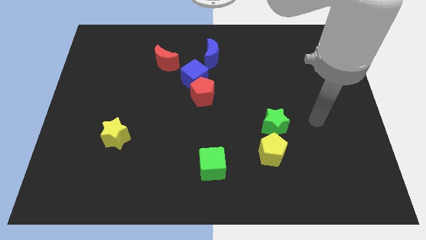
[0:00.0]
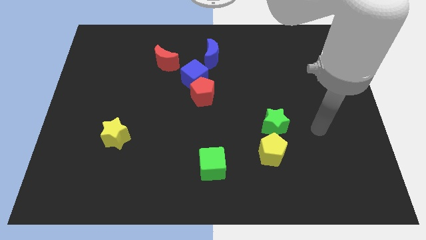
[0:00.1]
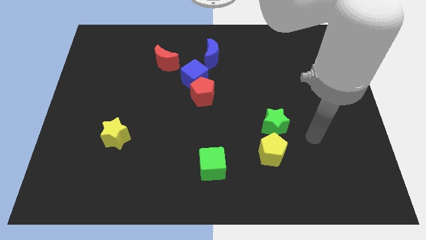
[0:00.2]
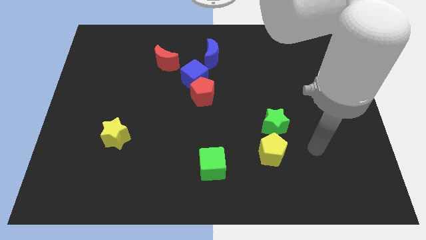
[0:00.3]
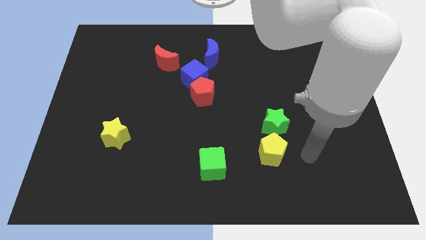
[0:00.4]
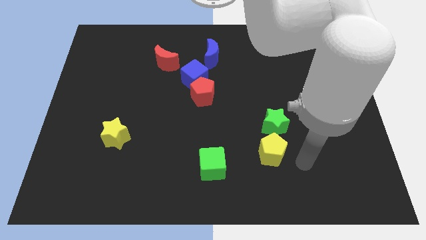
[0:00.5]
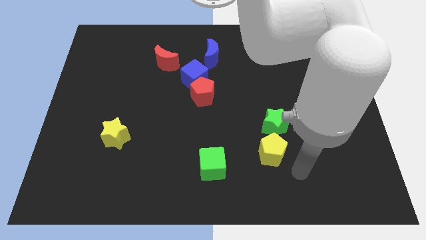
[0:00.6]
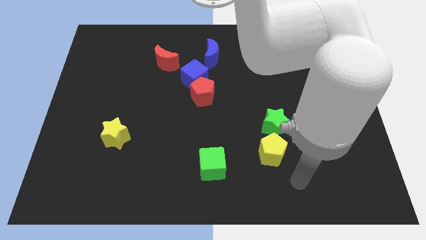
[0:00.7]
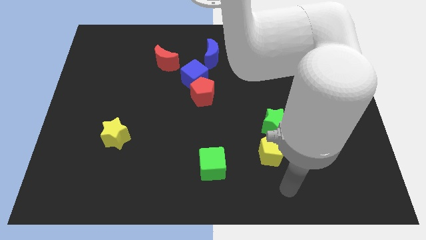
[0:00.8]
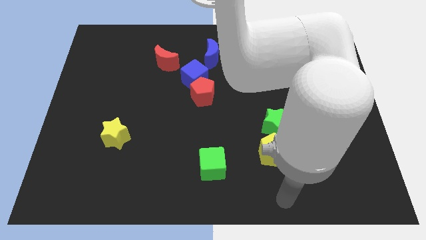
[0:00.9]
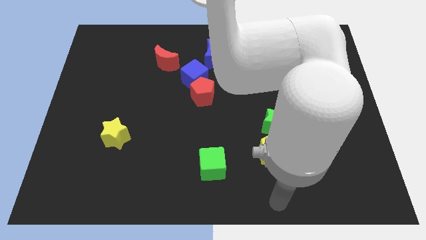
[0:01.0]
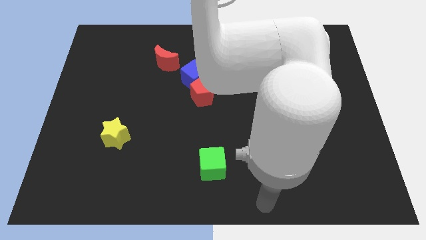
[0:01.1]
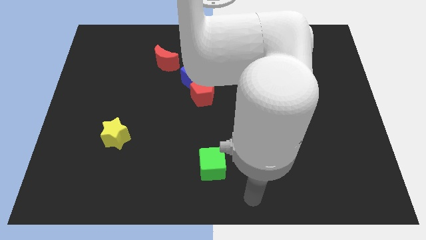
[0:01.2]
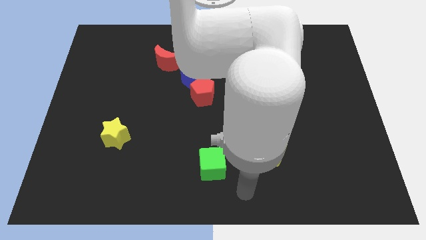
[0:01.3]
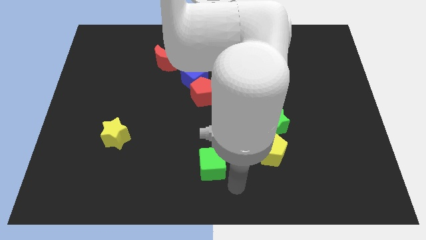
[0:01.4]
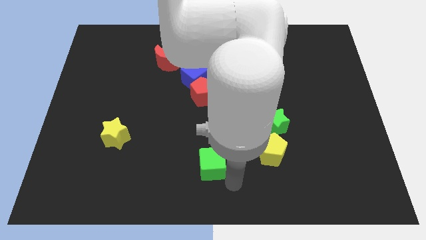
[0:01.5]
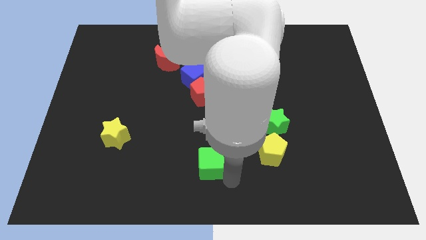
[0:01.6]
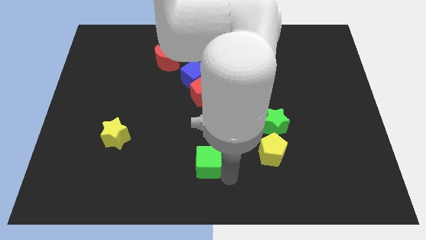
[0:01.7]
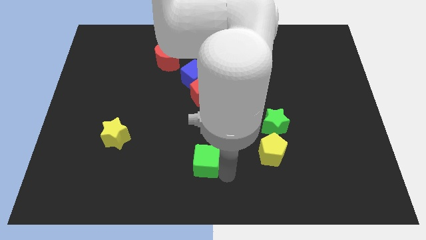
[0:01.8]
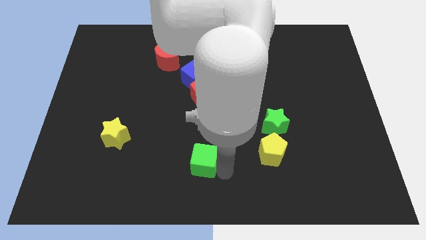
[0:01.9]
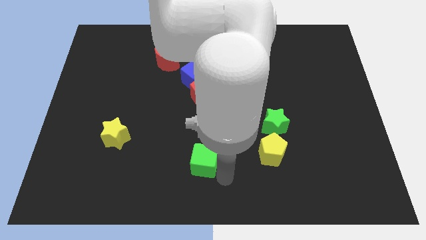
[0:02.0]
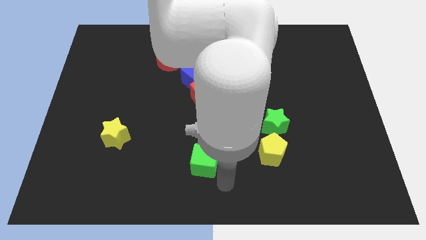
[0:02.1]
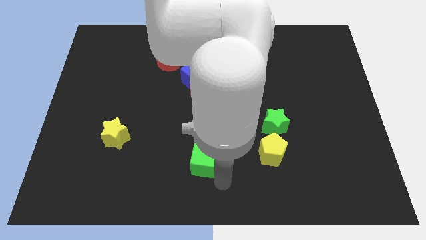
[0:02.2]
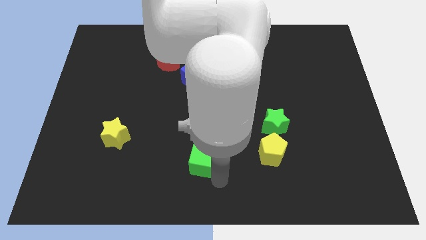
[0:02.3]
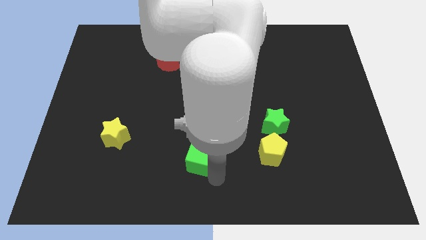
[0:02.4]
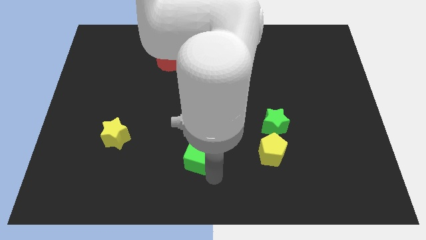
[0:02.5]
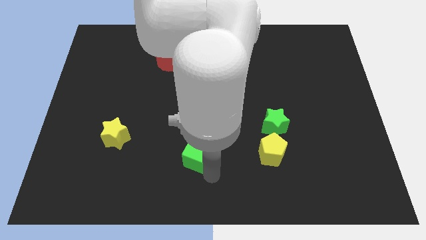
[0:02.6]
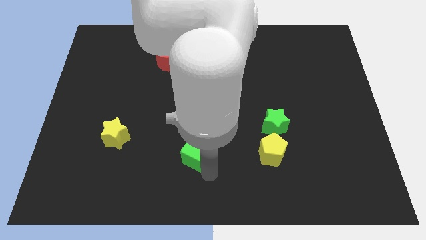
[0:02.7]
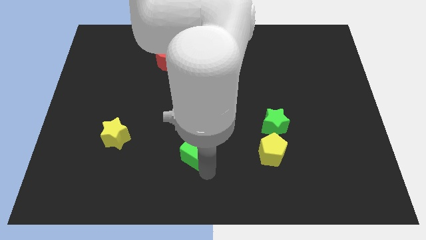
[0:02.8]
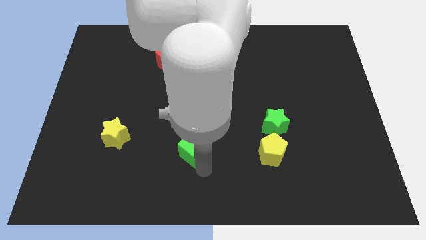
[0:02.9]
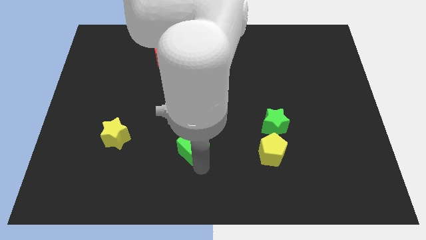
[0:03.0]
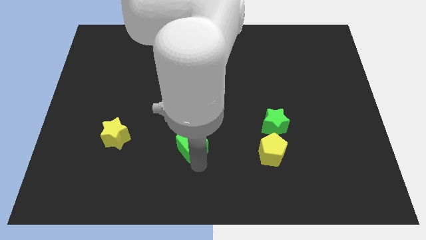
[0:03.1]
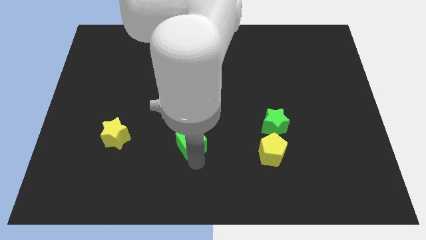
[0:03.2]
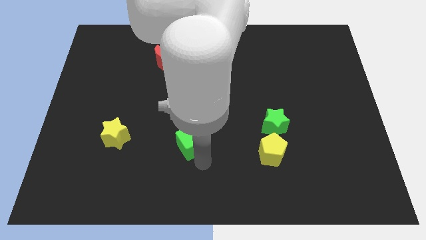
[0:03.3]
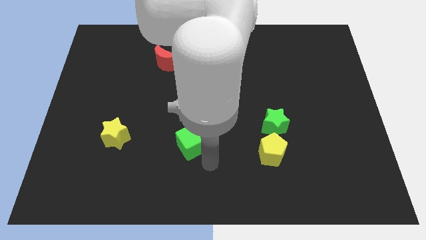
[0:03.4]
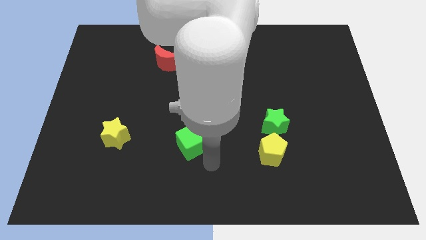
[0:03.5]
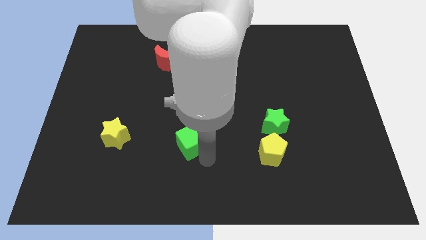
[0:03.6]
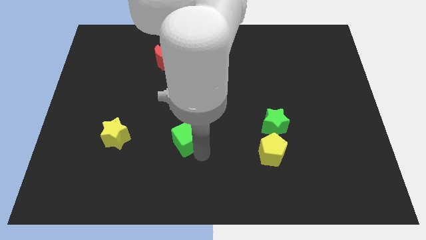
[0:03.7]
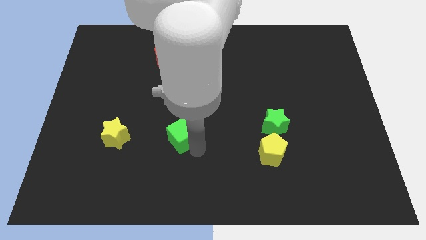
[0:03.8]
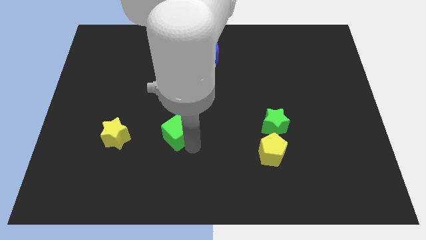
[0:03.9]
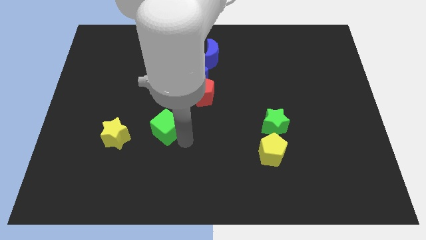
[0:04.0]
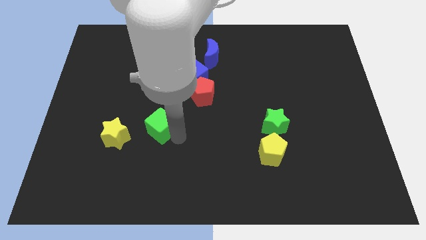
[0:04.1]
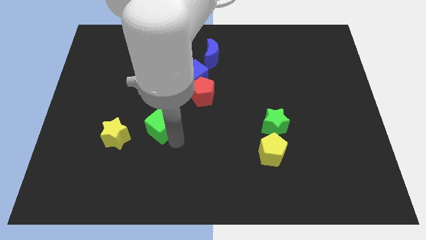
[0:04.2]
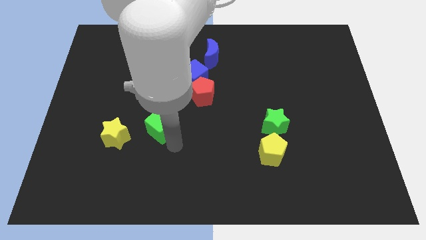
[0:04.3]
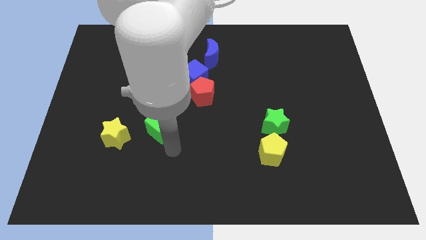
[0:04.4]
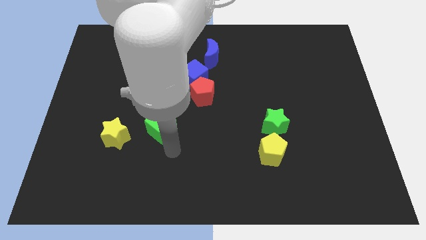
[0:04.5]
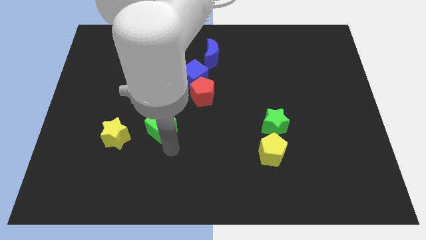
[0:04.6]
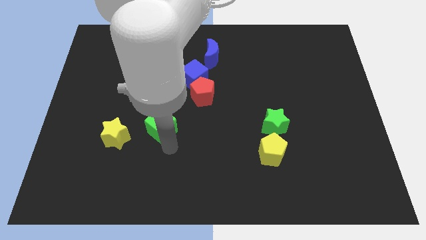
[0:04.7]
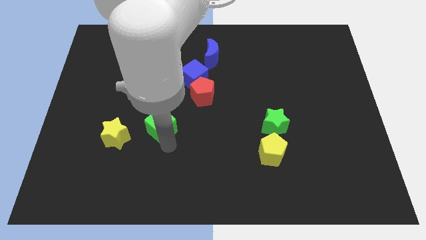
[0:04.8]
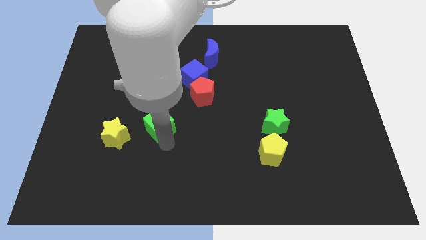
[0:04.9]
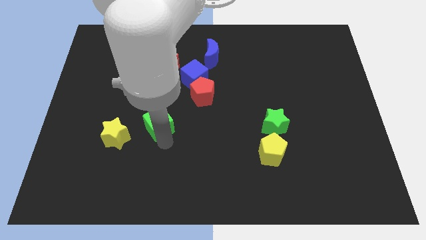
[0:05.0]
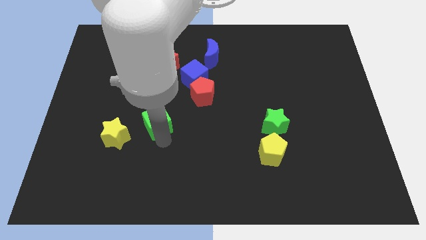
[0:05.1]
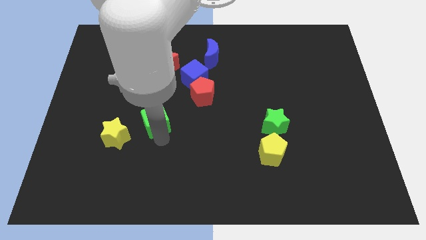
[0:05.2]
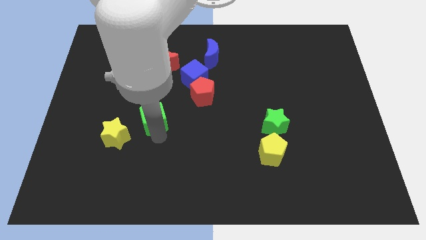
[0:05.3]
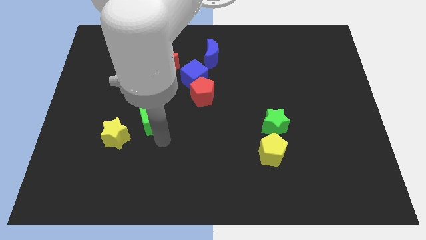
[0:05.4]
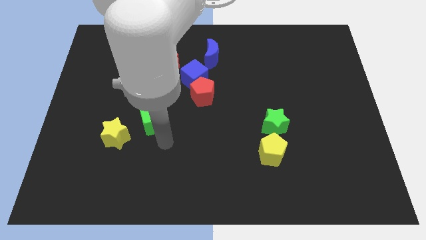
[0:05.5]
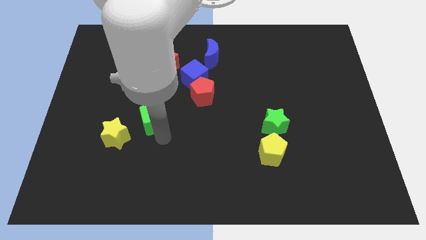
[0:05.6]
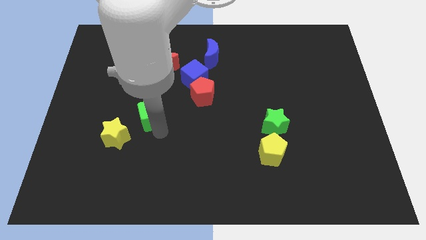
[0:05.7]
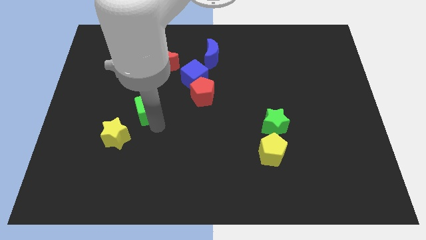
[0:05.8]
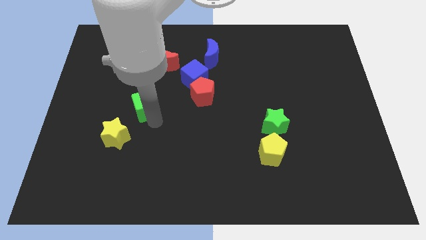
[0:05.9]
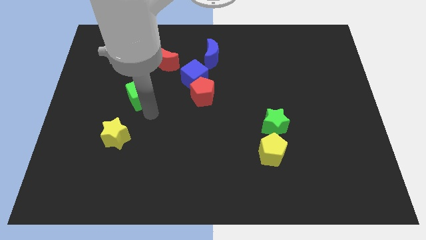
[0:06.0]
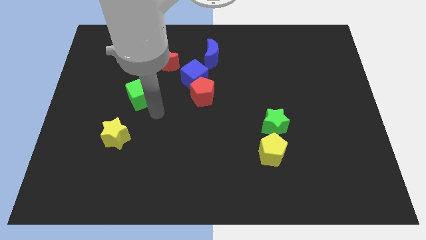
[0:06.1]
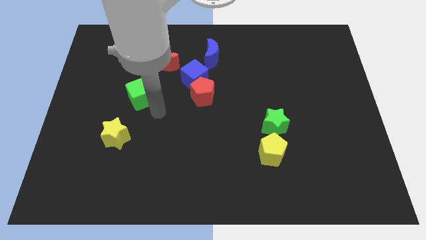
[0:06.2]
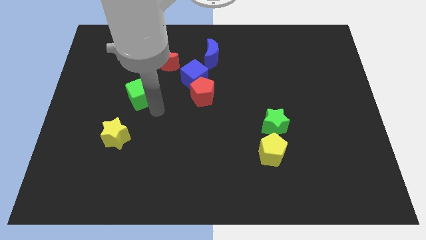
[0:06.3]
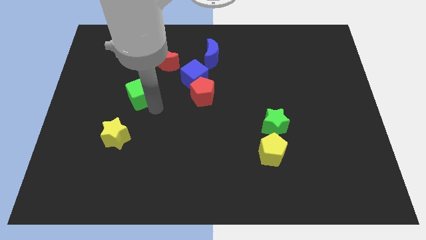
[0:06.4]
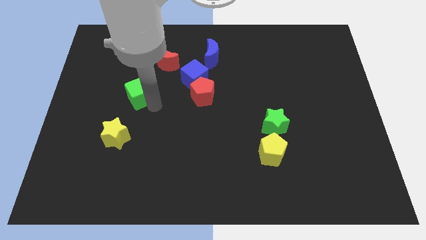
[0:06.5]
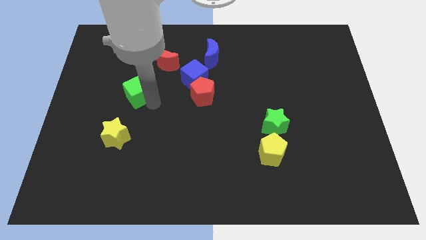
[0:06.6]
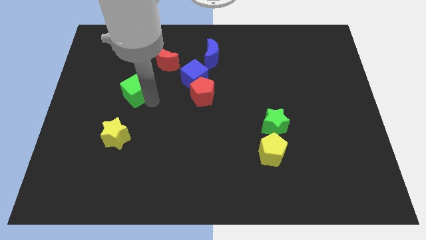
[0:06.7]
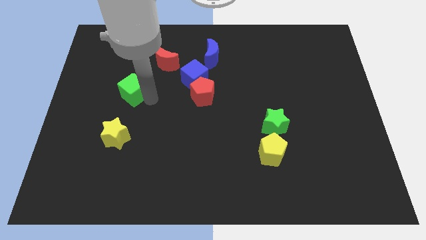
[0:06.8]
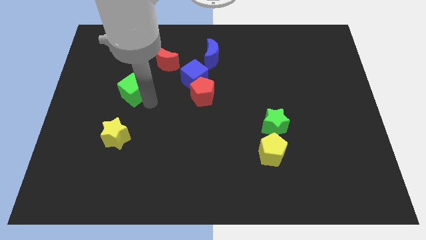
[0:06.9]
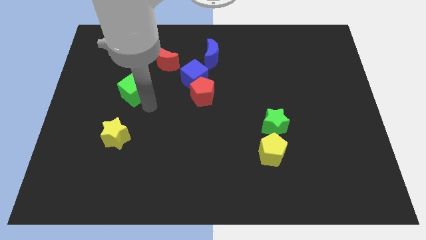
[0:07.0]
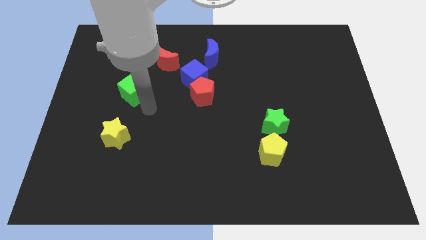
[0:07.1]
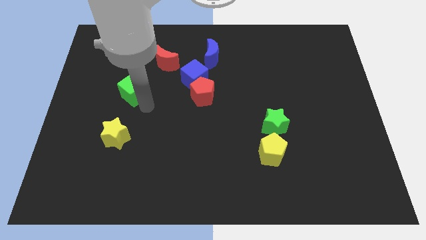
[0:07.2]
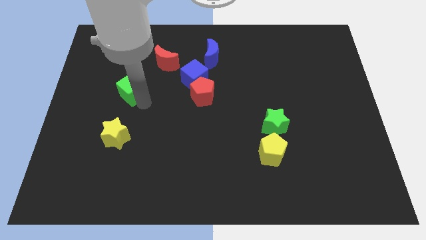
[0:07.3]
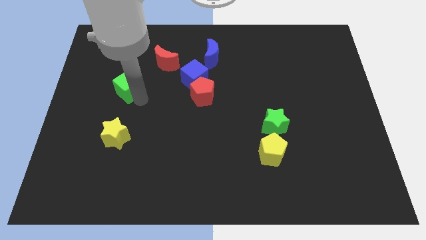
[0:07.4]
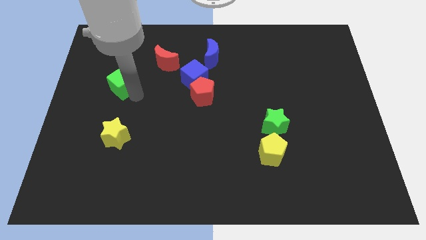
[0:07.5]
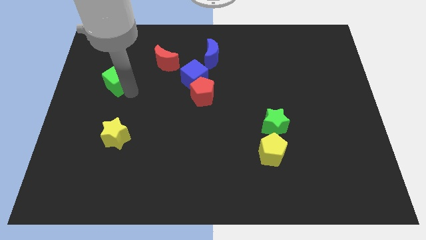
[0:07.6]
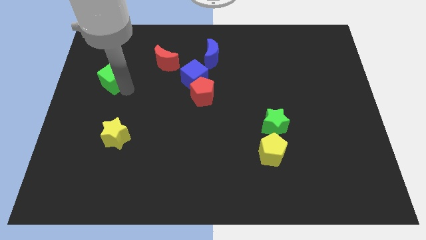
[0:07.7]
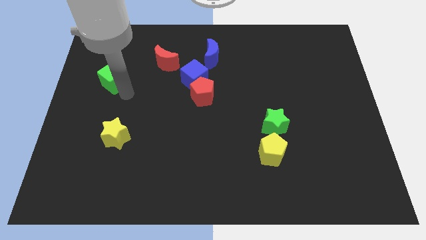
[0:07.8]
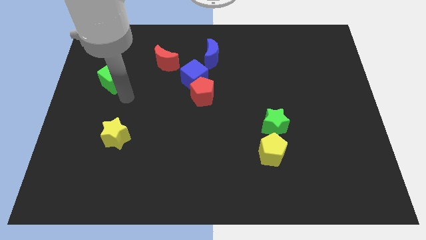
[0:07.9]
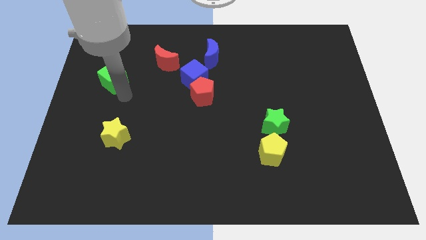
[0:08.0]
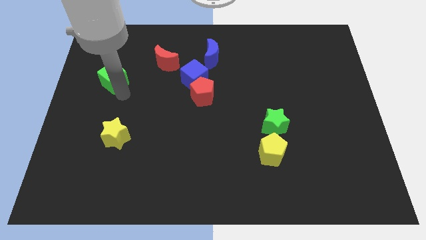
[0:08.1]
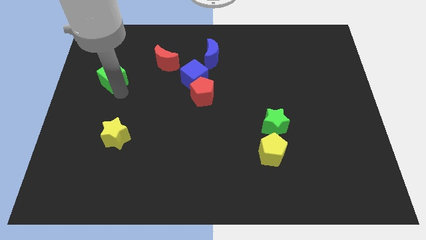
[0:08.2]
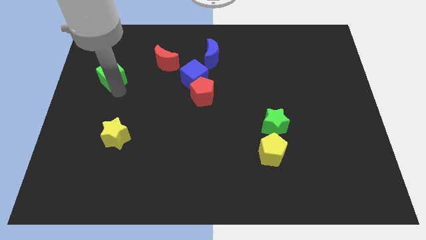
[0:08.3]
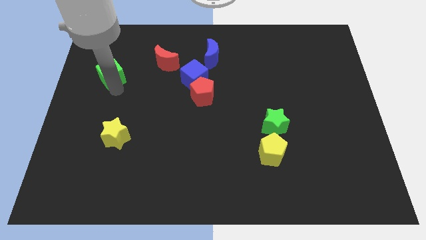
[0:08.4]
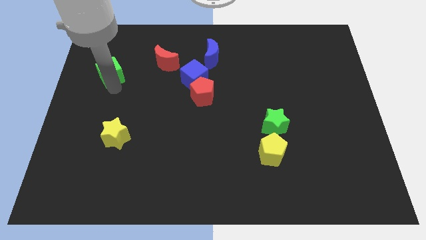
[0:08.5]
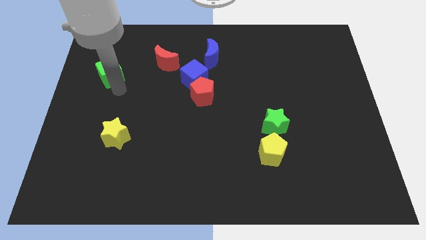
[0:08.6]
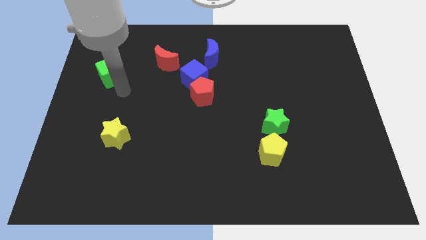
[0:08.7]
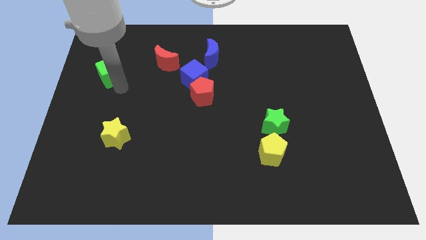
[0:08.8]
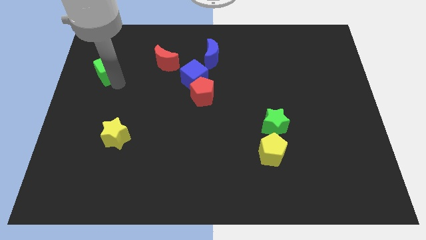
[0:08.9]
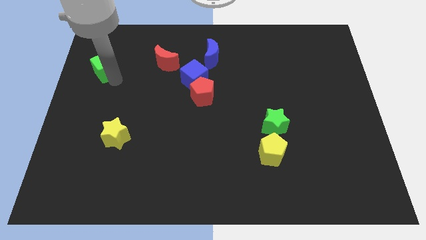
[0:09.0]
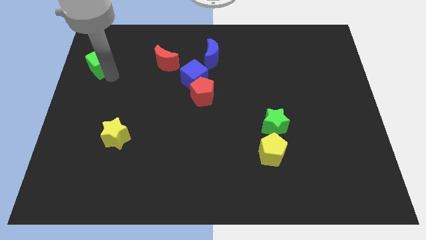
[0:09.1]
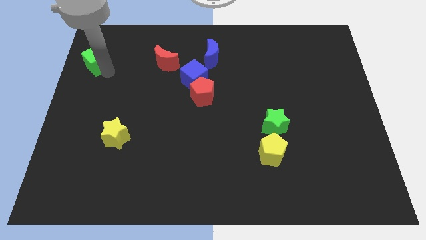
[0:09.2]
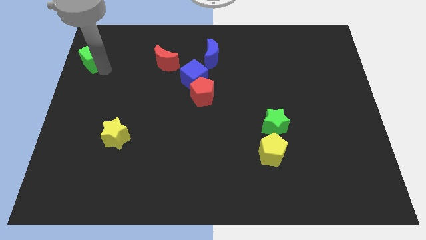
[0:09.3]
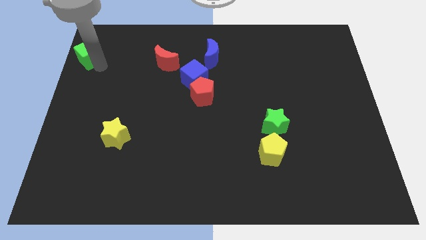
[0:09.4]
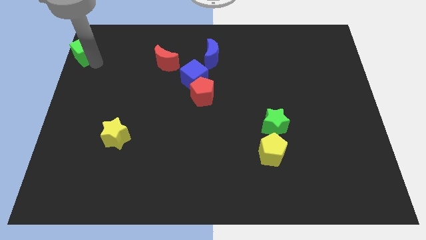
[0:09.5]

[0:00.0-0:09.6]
push the green cube to the top left
